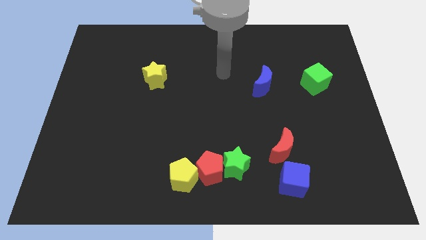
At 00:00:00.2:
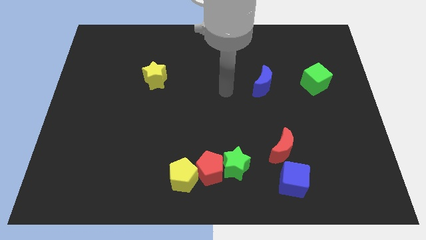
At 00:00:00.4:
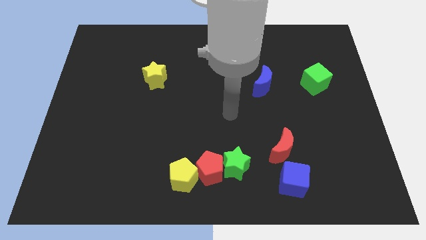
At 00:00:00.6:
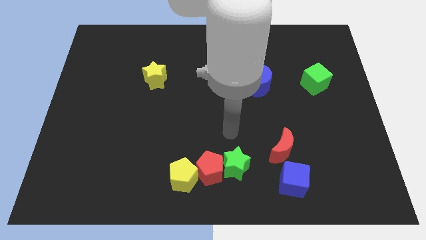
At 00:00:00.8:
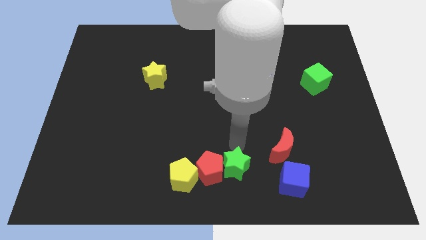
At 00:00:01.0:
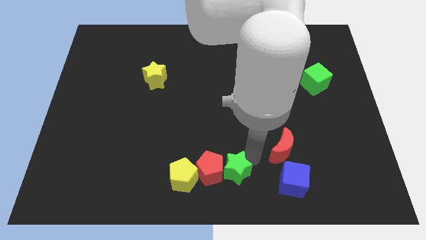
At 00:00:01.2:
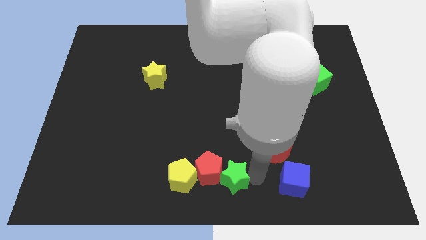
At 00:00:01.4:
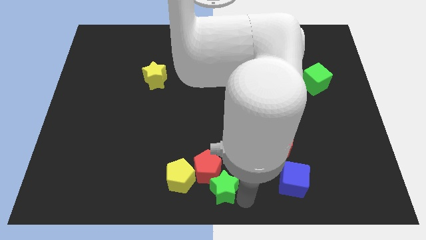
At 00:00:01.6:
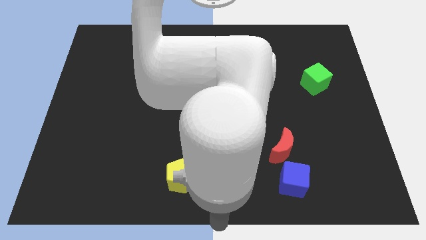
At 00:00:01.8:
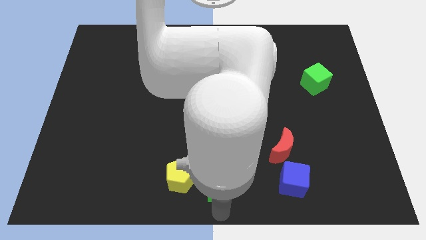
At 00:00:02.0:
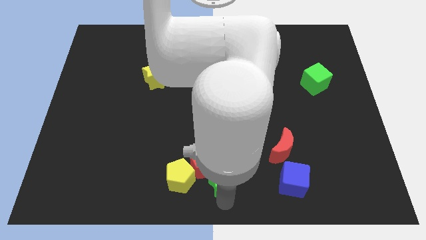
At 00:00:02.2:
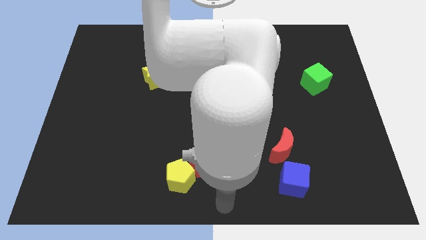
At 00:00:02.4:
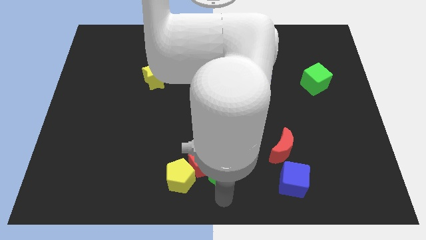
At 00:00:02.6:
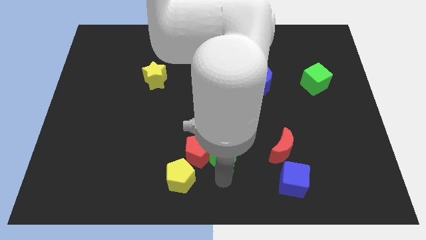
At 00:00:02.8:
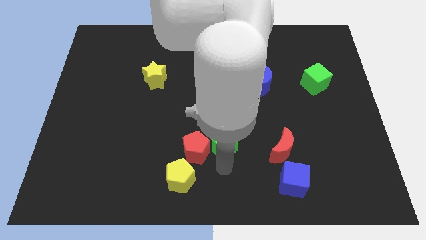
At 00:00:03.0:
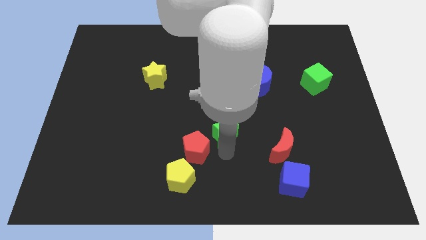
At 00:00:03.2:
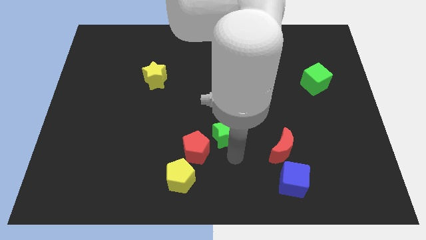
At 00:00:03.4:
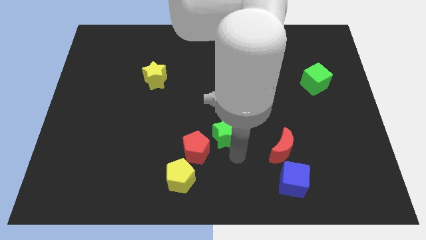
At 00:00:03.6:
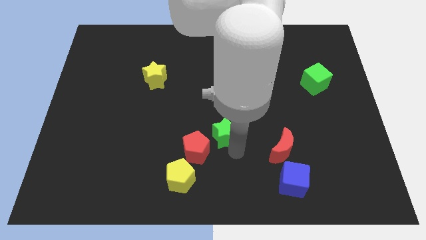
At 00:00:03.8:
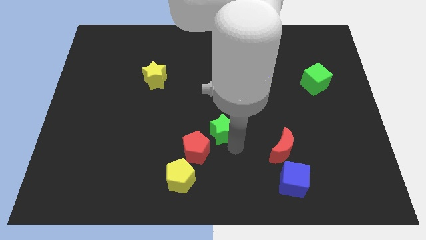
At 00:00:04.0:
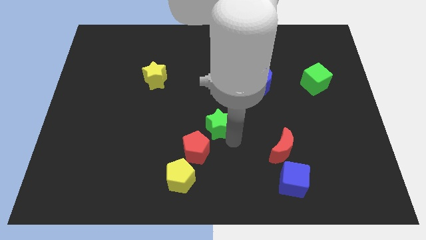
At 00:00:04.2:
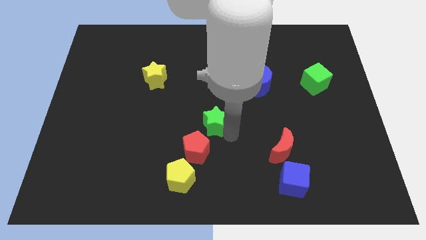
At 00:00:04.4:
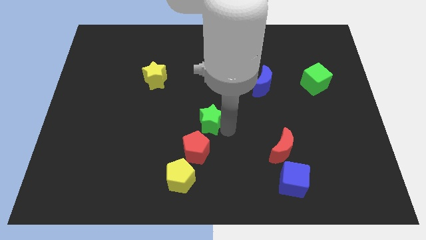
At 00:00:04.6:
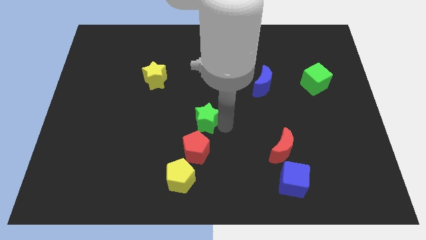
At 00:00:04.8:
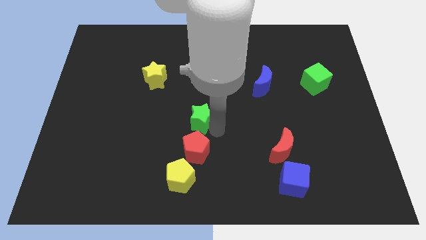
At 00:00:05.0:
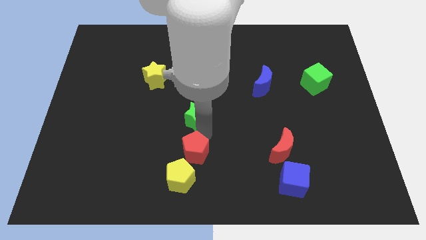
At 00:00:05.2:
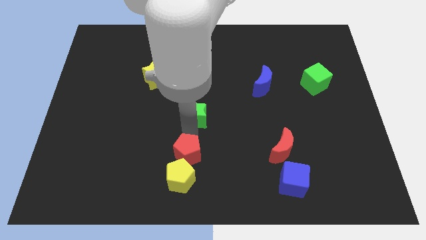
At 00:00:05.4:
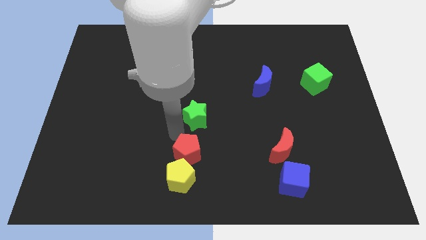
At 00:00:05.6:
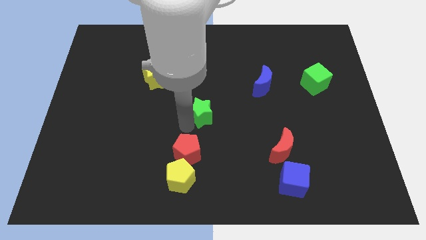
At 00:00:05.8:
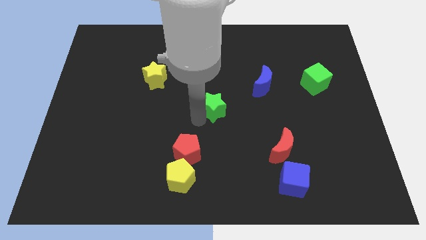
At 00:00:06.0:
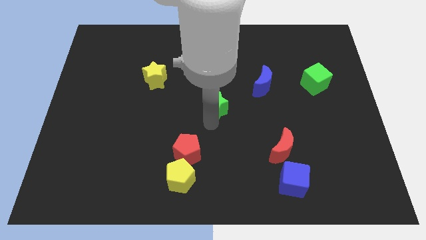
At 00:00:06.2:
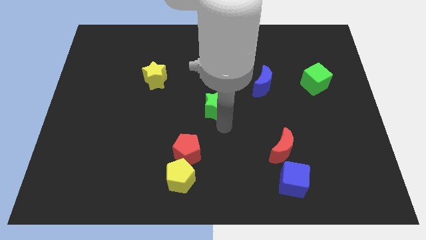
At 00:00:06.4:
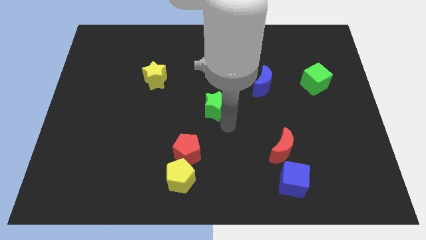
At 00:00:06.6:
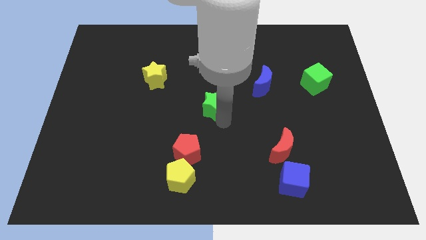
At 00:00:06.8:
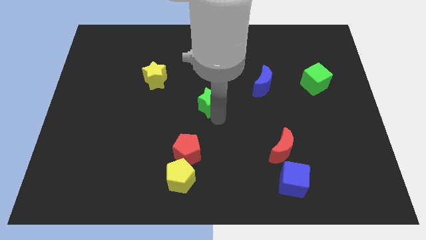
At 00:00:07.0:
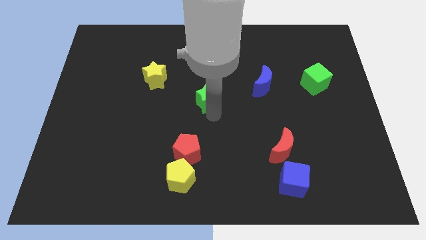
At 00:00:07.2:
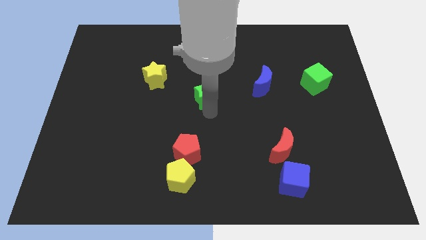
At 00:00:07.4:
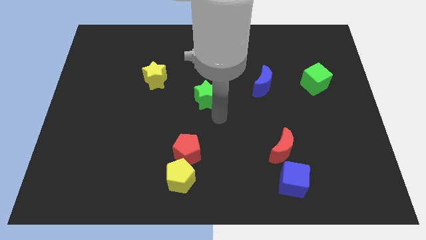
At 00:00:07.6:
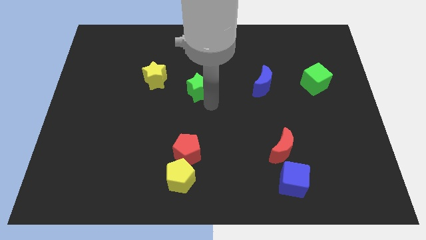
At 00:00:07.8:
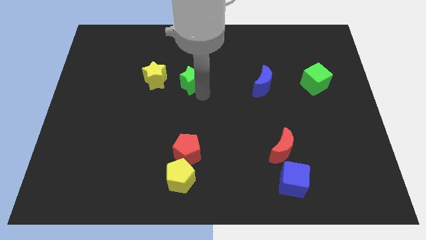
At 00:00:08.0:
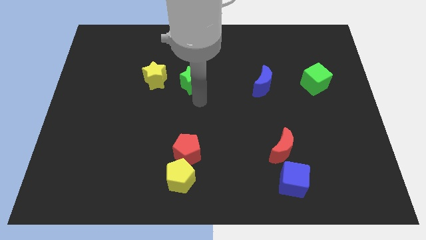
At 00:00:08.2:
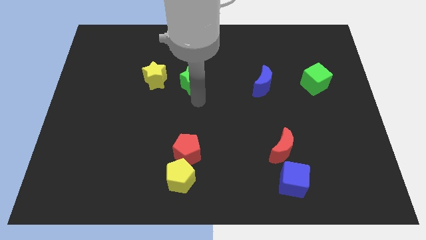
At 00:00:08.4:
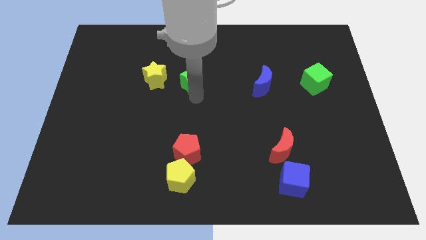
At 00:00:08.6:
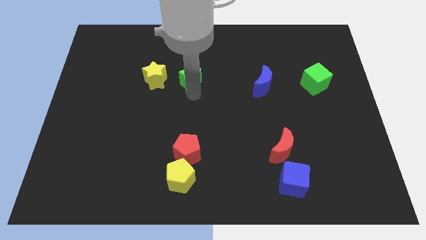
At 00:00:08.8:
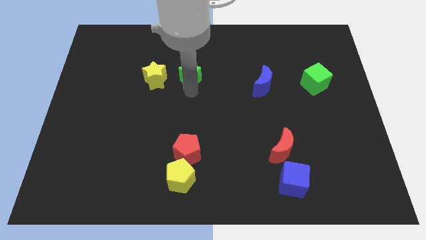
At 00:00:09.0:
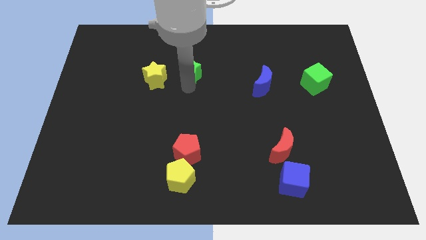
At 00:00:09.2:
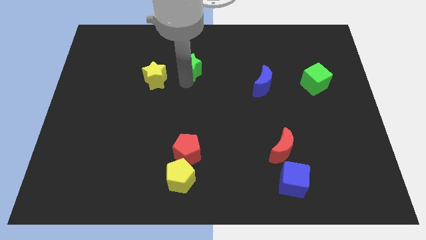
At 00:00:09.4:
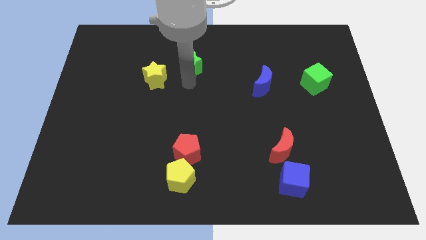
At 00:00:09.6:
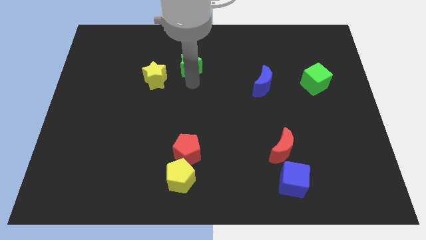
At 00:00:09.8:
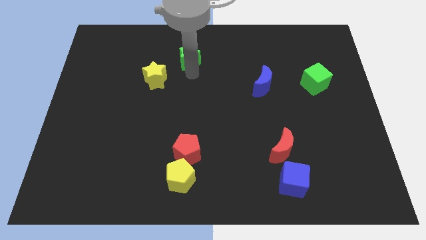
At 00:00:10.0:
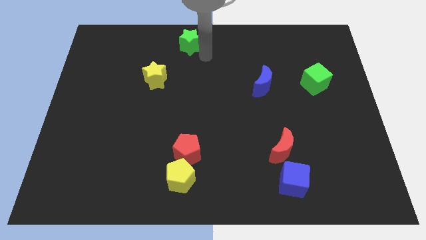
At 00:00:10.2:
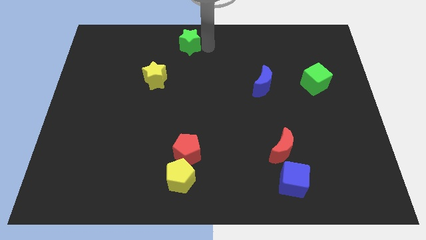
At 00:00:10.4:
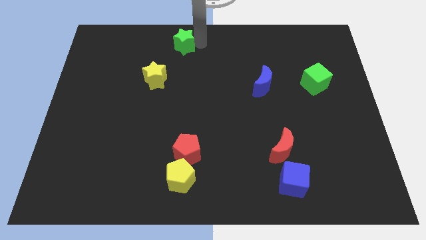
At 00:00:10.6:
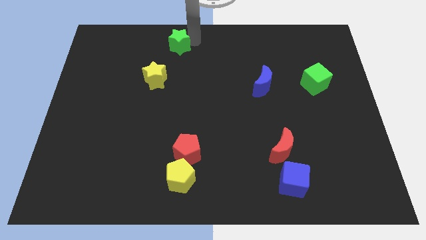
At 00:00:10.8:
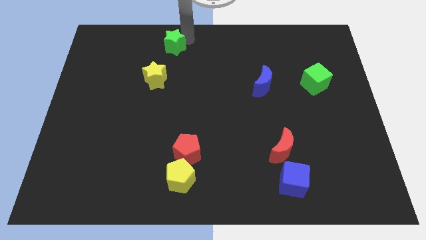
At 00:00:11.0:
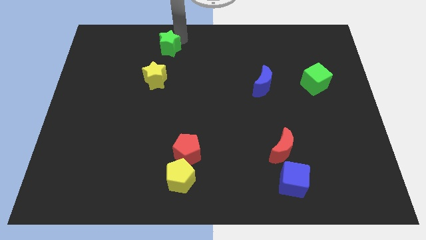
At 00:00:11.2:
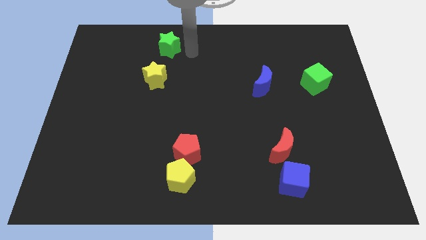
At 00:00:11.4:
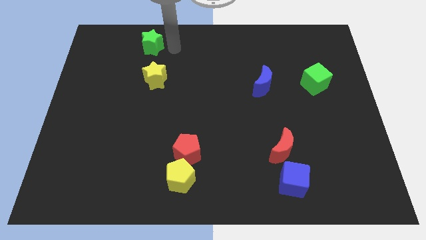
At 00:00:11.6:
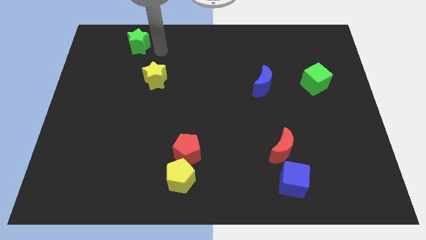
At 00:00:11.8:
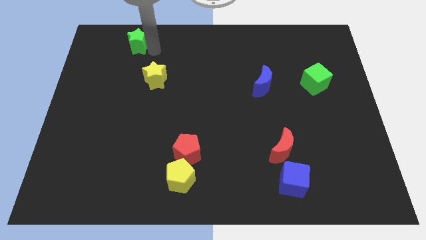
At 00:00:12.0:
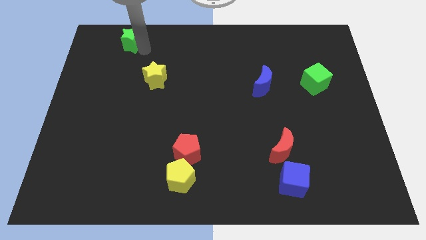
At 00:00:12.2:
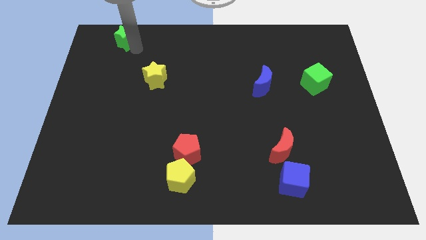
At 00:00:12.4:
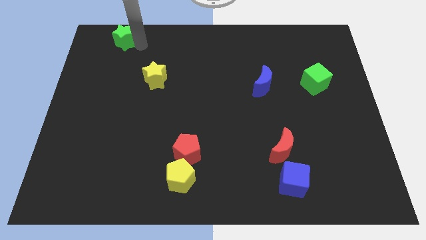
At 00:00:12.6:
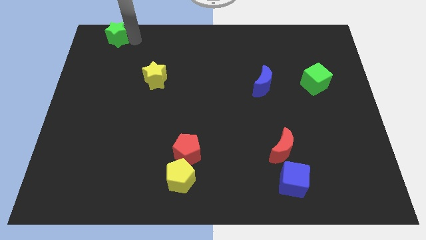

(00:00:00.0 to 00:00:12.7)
slide the green star to the top left corner
